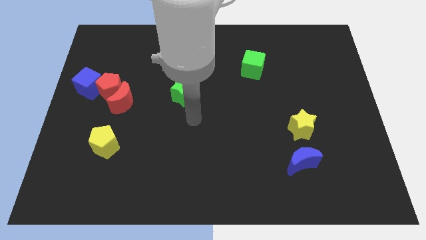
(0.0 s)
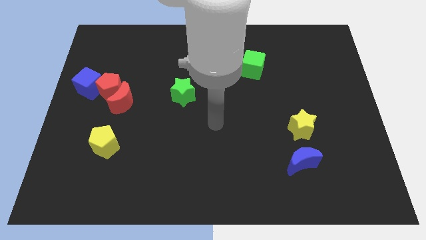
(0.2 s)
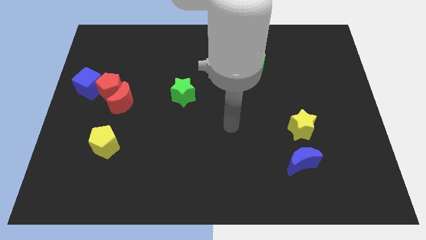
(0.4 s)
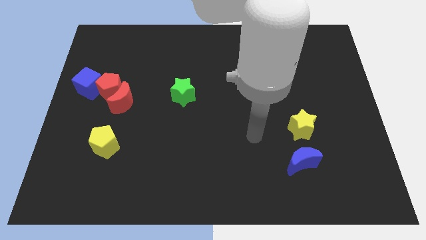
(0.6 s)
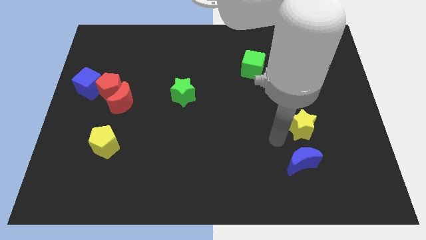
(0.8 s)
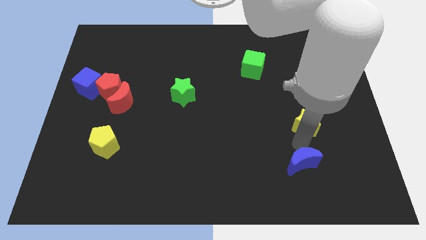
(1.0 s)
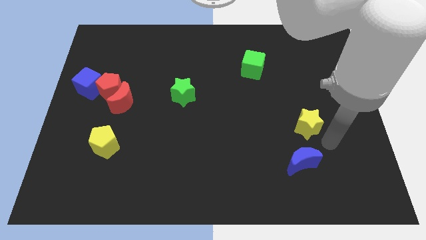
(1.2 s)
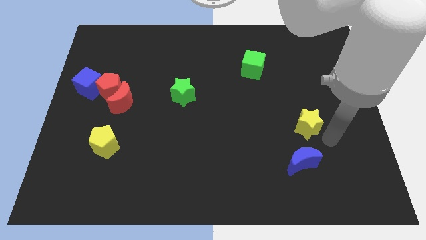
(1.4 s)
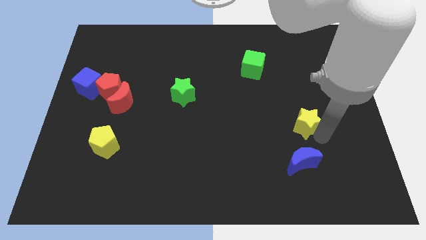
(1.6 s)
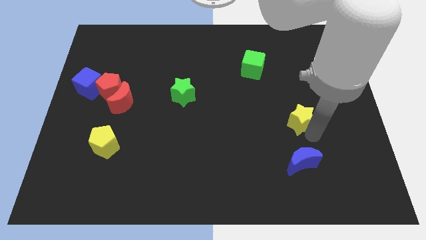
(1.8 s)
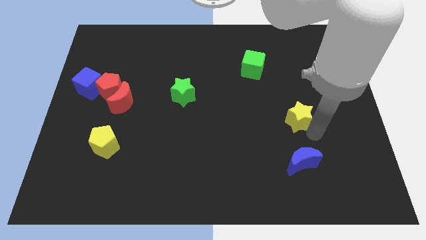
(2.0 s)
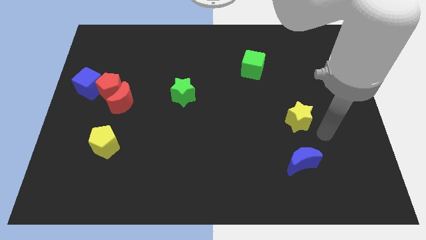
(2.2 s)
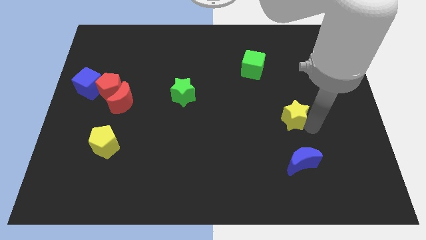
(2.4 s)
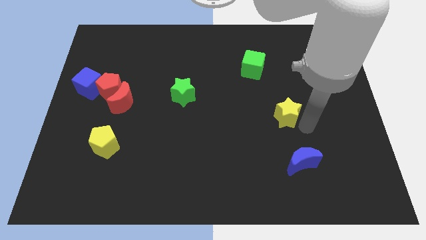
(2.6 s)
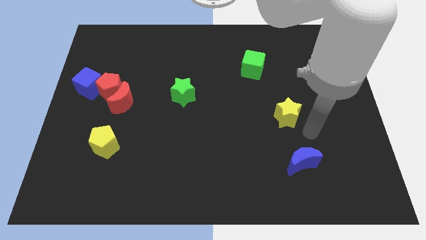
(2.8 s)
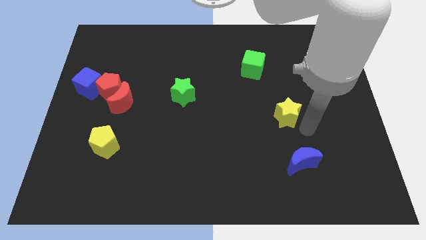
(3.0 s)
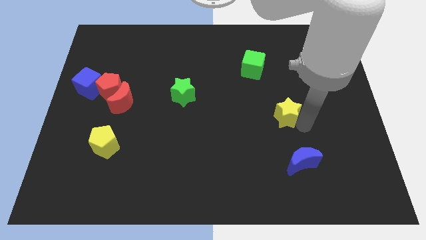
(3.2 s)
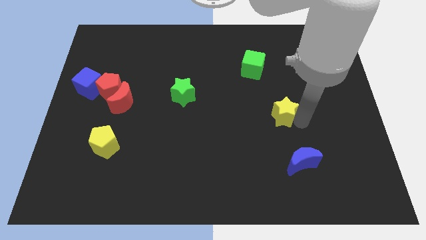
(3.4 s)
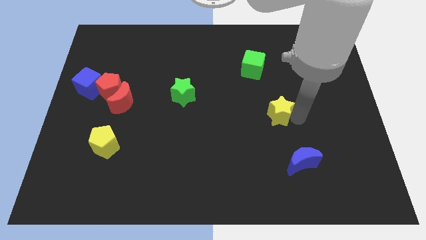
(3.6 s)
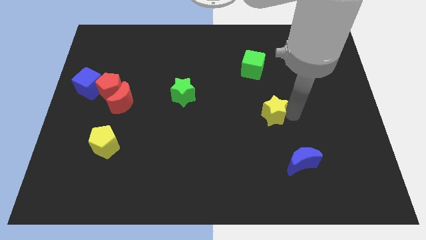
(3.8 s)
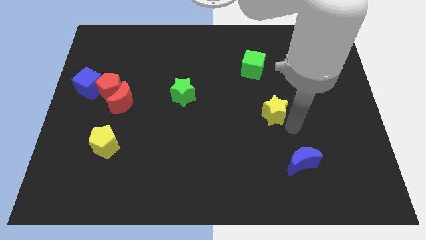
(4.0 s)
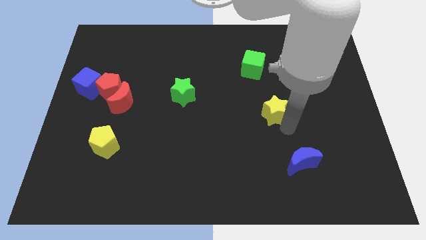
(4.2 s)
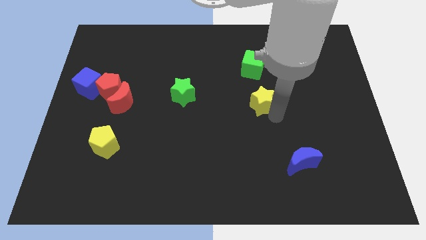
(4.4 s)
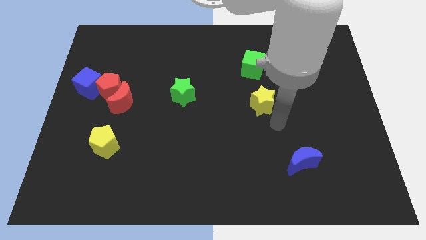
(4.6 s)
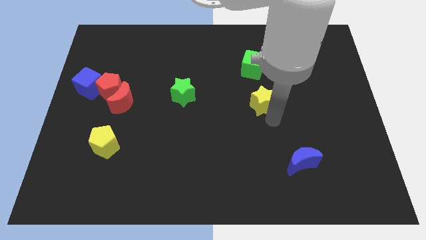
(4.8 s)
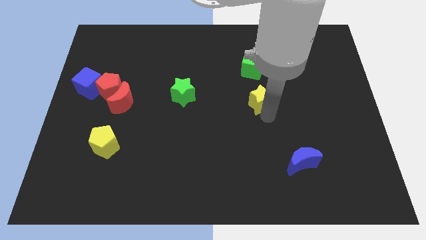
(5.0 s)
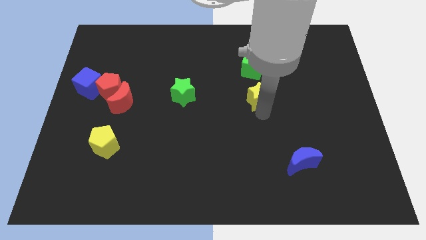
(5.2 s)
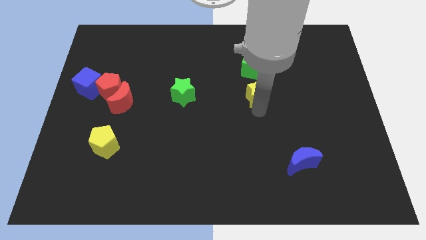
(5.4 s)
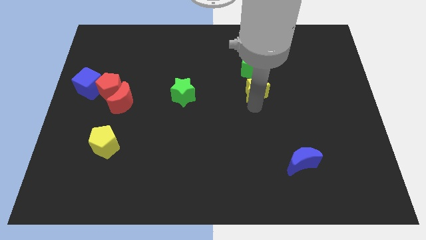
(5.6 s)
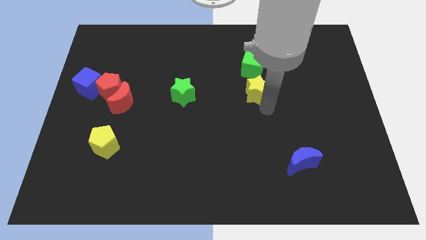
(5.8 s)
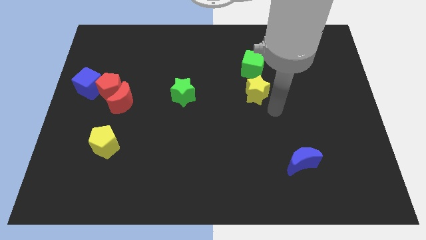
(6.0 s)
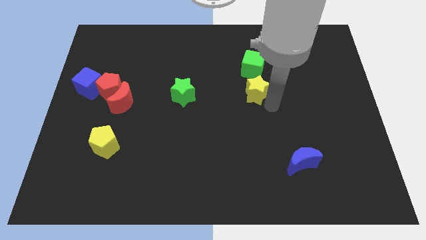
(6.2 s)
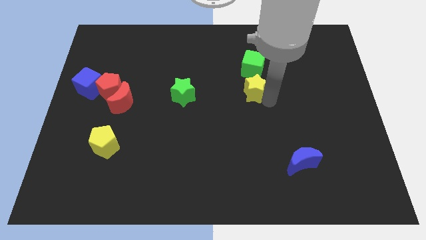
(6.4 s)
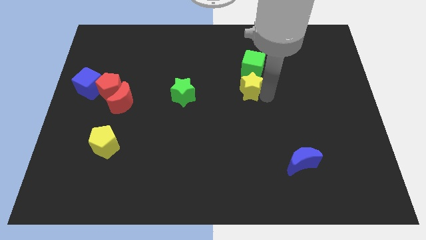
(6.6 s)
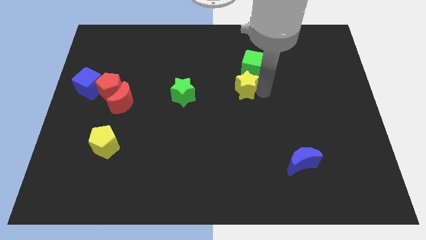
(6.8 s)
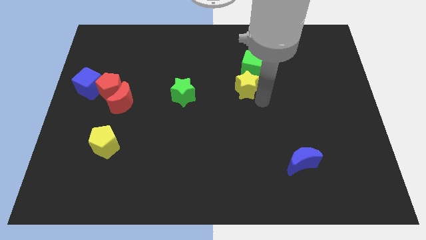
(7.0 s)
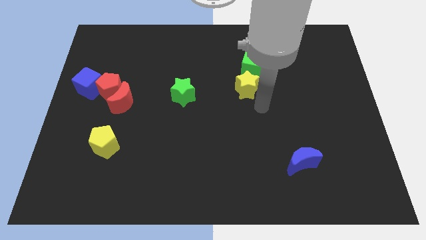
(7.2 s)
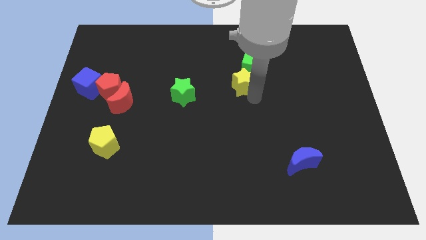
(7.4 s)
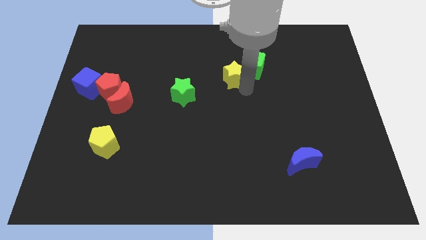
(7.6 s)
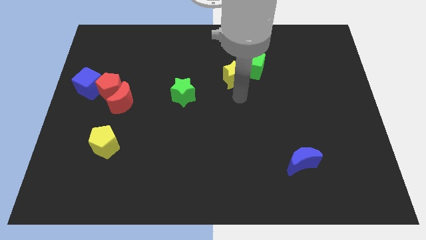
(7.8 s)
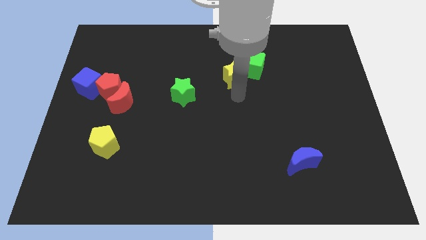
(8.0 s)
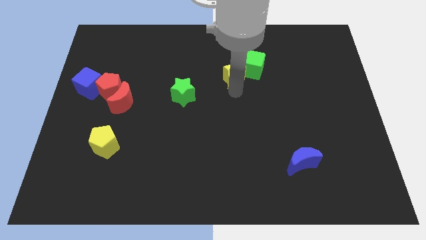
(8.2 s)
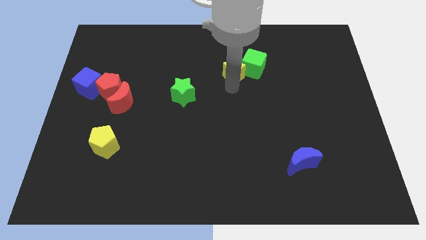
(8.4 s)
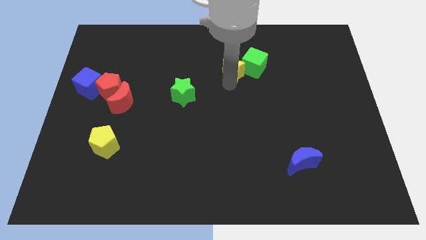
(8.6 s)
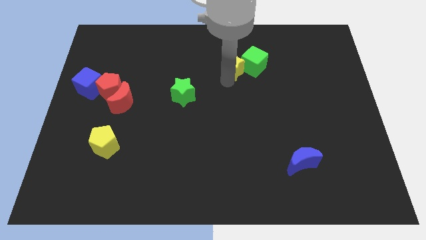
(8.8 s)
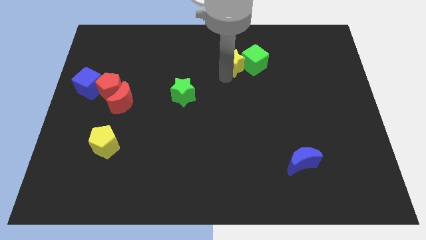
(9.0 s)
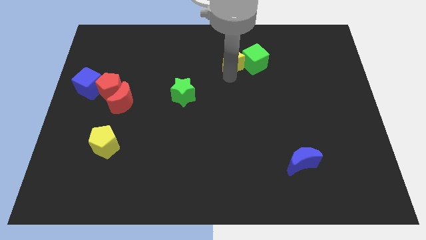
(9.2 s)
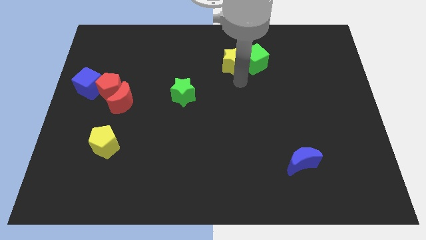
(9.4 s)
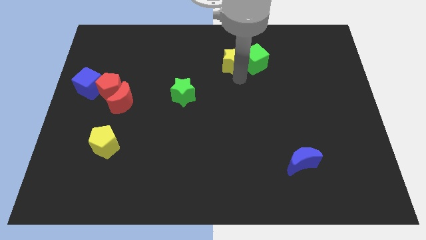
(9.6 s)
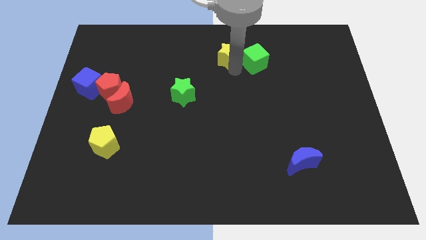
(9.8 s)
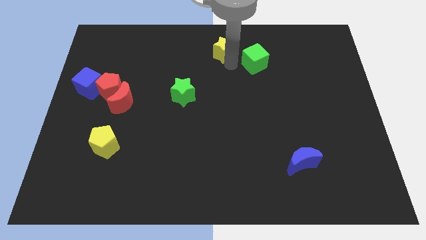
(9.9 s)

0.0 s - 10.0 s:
move the yellow star to the top side

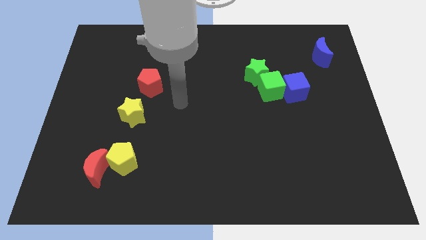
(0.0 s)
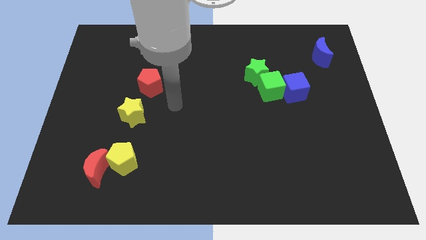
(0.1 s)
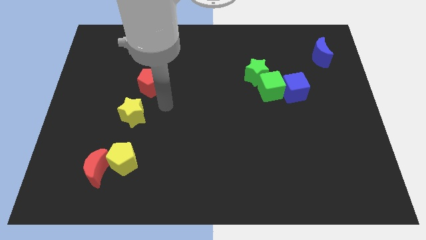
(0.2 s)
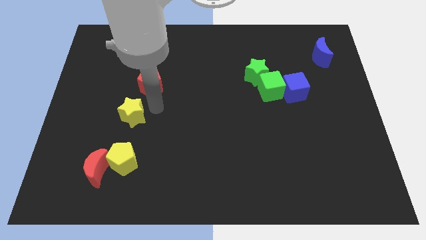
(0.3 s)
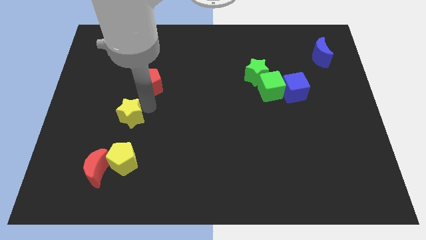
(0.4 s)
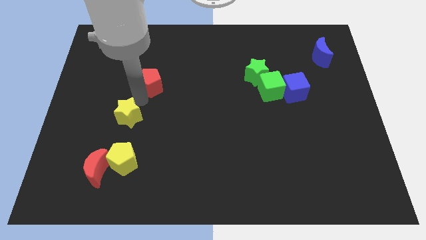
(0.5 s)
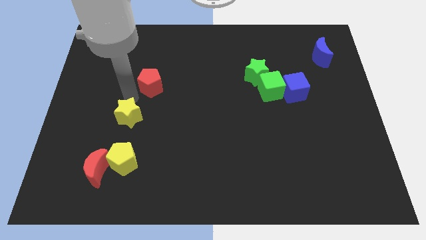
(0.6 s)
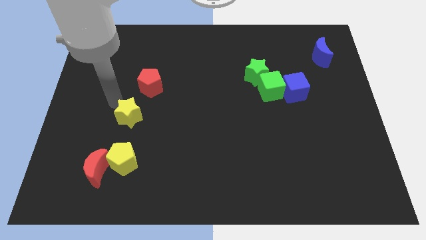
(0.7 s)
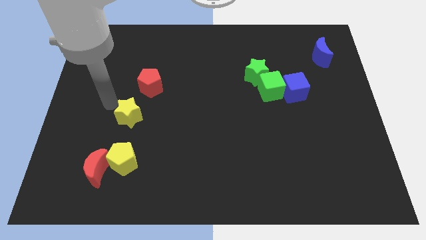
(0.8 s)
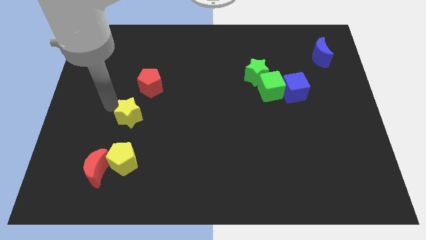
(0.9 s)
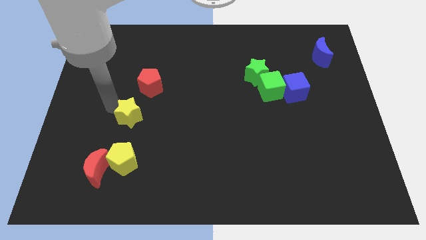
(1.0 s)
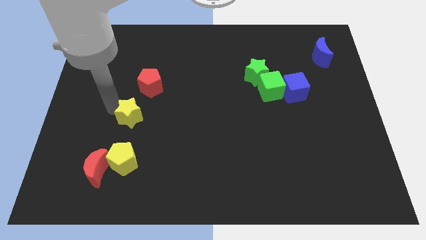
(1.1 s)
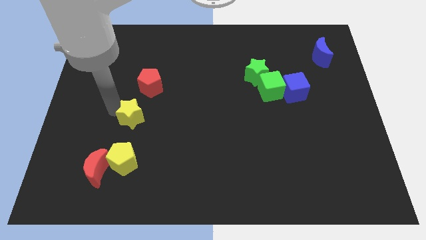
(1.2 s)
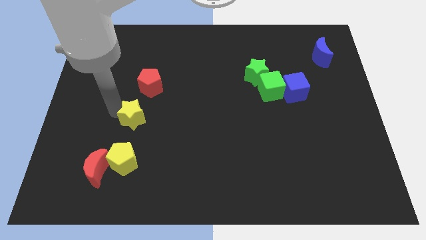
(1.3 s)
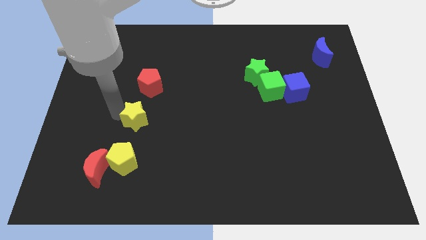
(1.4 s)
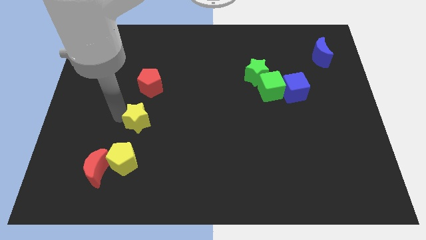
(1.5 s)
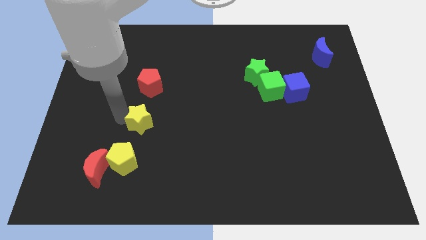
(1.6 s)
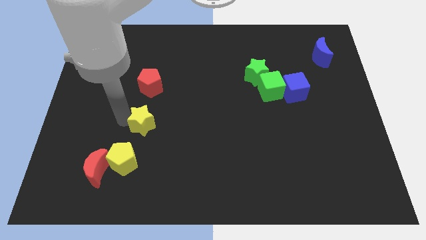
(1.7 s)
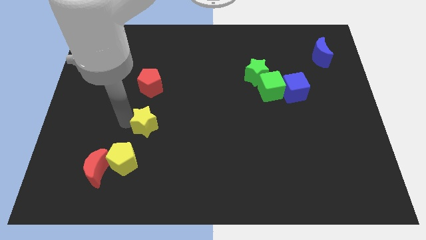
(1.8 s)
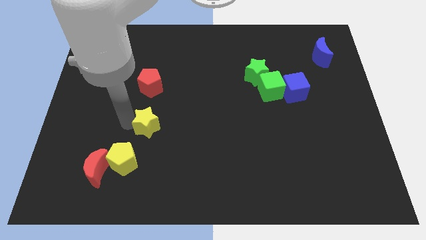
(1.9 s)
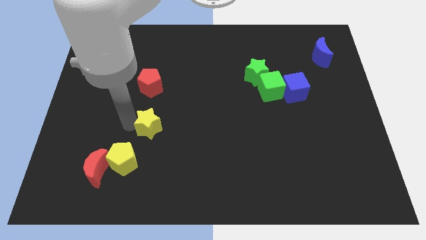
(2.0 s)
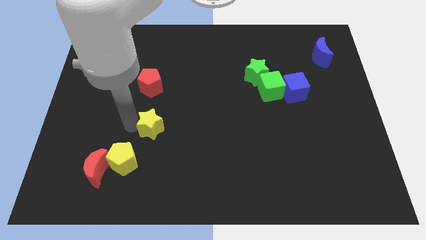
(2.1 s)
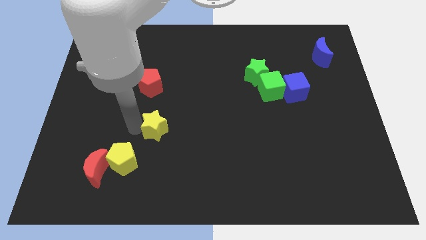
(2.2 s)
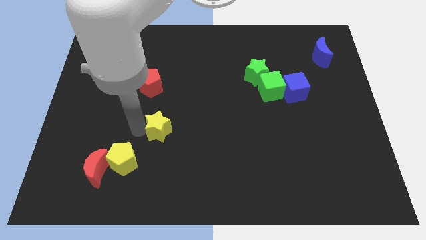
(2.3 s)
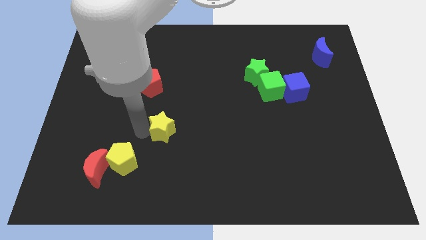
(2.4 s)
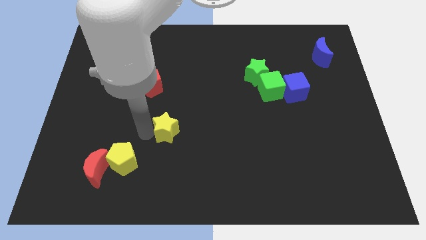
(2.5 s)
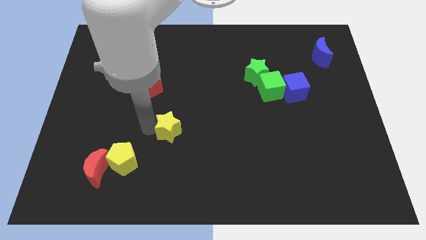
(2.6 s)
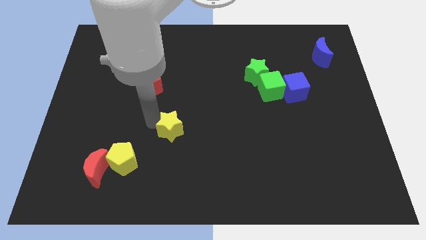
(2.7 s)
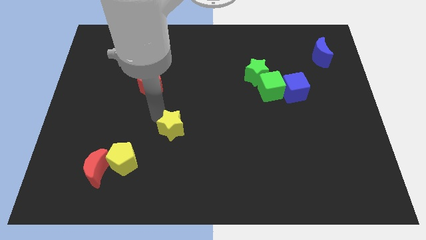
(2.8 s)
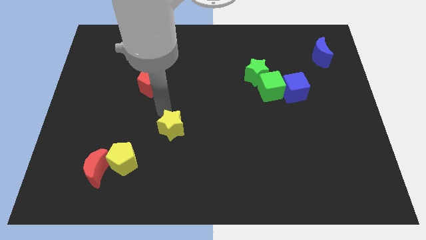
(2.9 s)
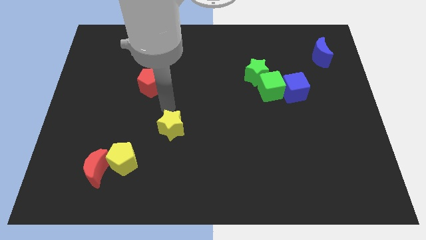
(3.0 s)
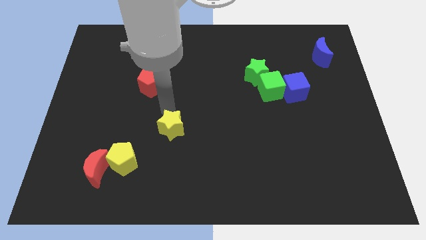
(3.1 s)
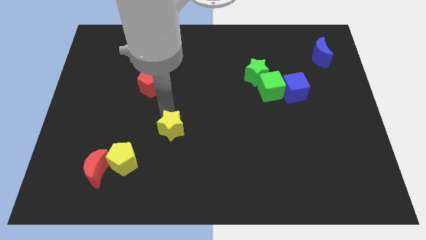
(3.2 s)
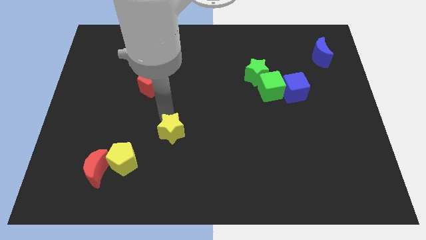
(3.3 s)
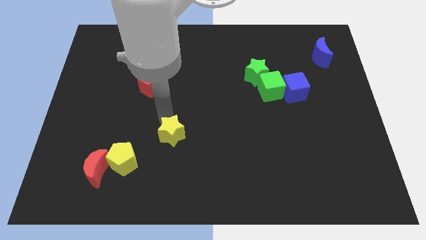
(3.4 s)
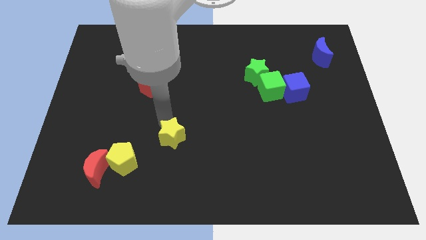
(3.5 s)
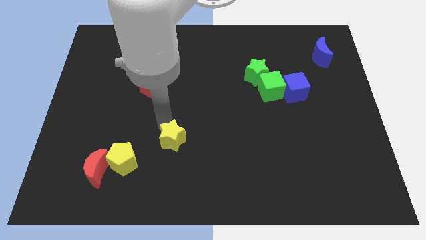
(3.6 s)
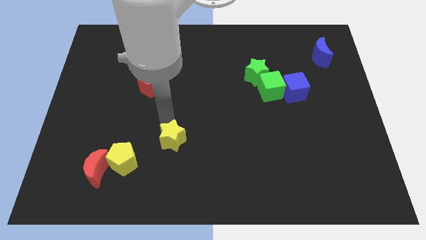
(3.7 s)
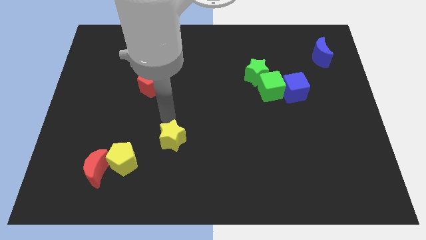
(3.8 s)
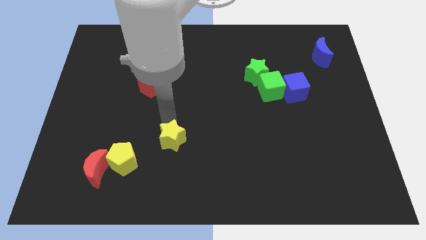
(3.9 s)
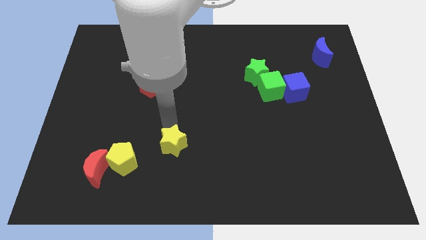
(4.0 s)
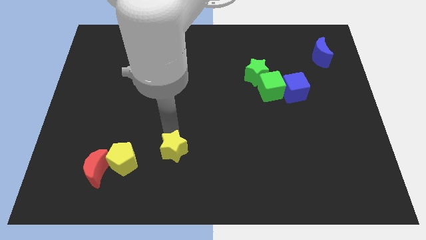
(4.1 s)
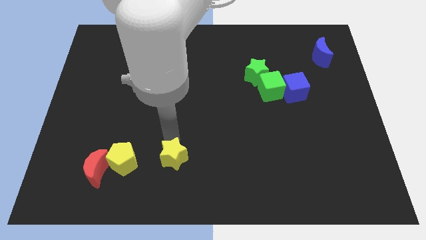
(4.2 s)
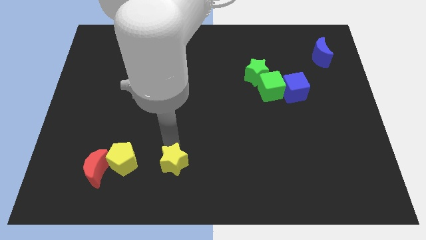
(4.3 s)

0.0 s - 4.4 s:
push the yellow star to the bottom
